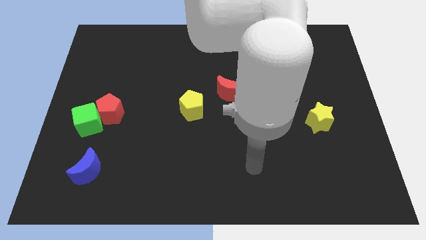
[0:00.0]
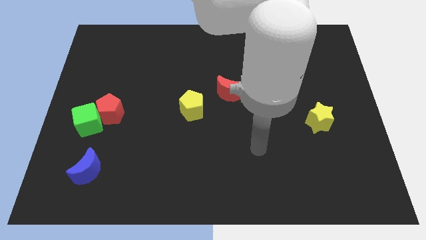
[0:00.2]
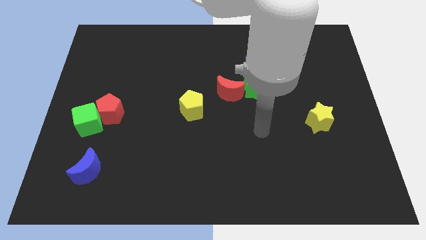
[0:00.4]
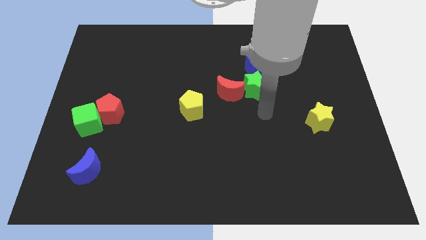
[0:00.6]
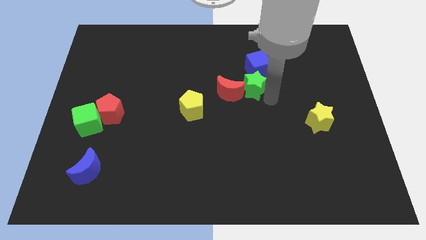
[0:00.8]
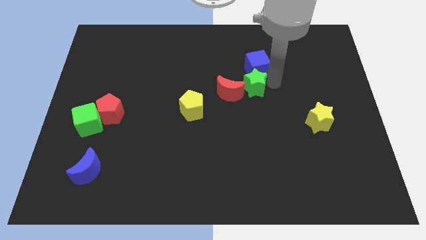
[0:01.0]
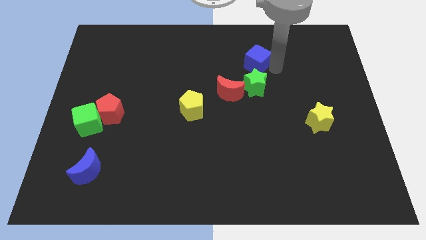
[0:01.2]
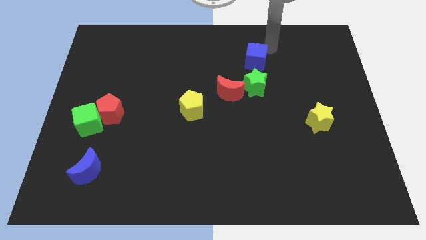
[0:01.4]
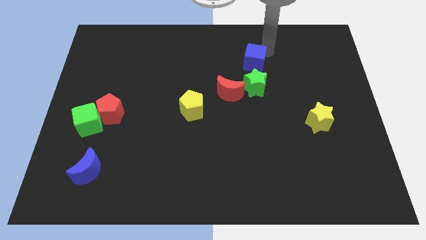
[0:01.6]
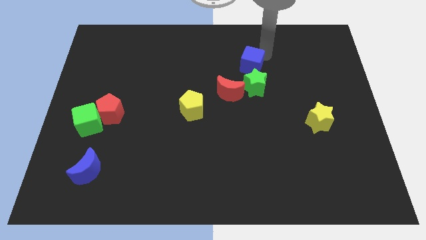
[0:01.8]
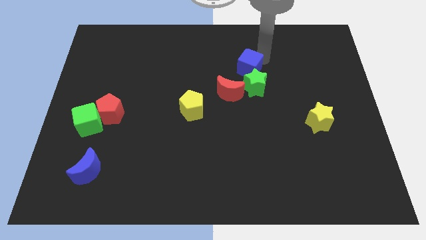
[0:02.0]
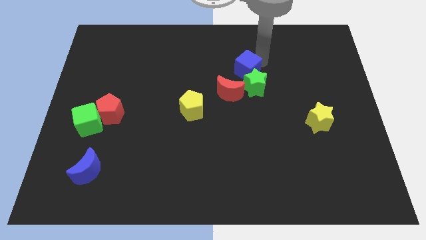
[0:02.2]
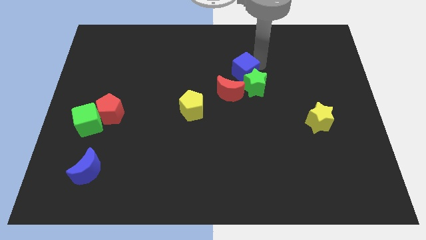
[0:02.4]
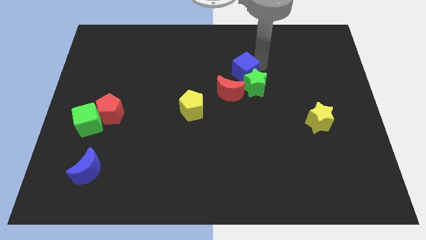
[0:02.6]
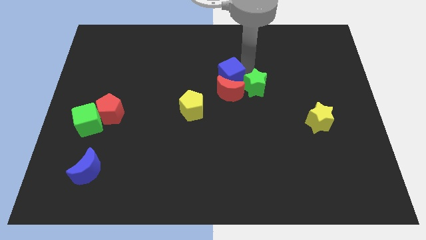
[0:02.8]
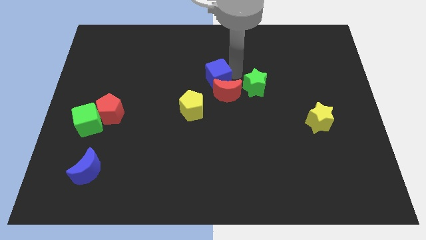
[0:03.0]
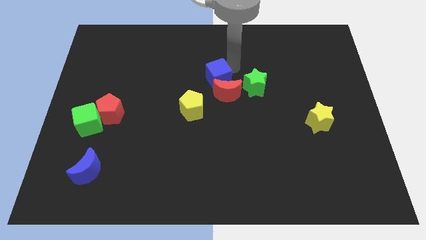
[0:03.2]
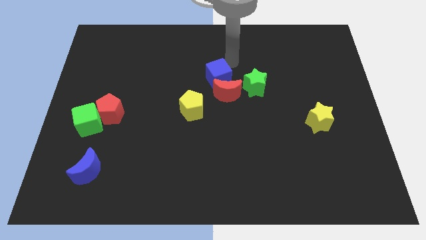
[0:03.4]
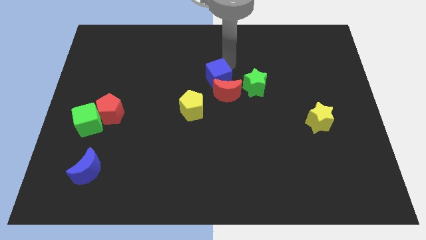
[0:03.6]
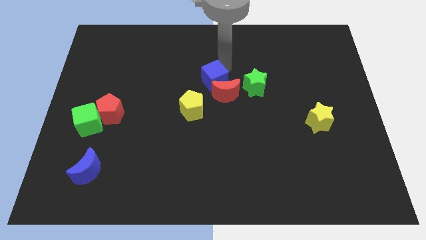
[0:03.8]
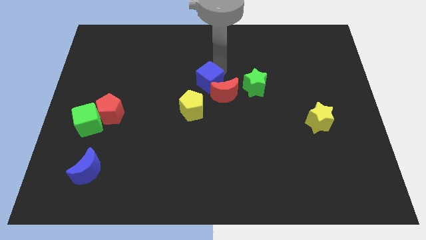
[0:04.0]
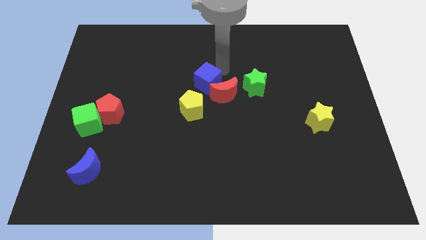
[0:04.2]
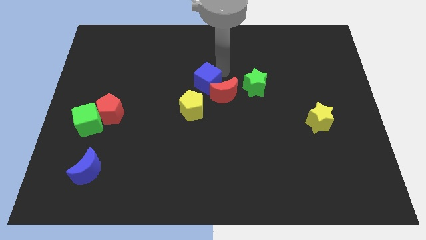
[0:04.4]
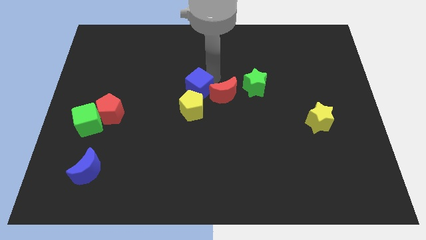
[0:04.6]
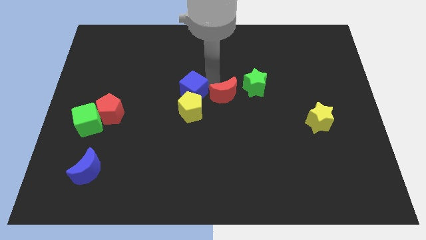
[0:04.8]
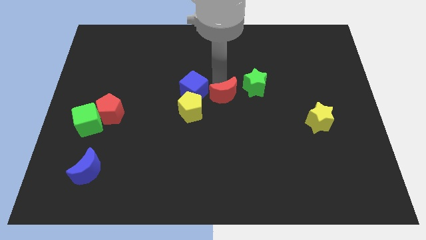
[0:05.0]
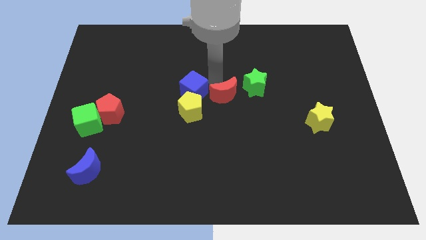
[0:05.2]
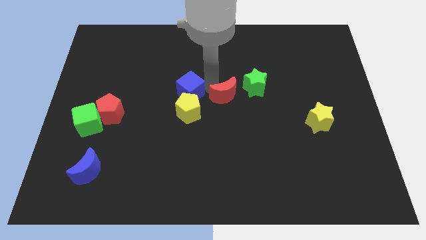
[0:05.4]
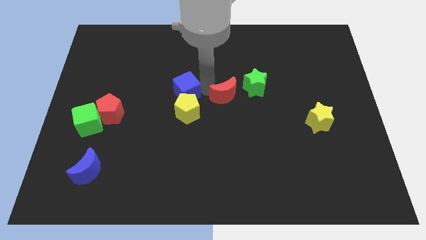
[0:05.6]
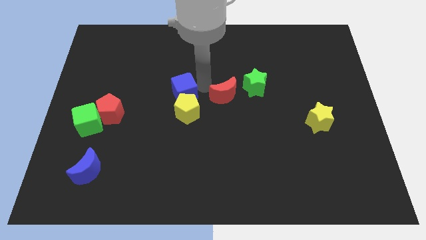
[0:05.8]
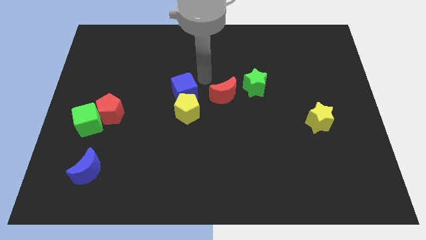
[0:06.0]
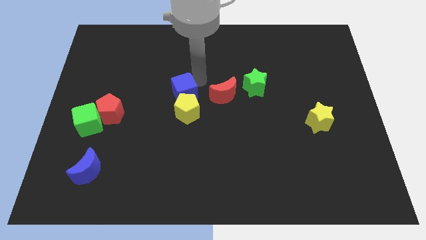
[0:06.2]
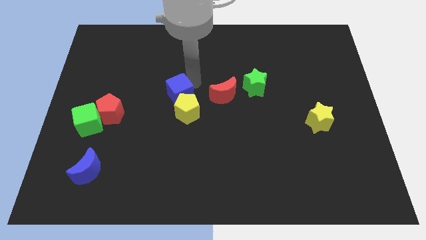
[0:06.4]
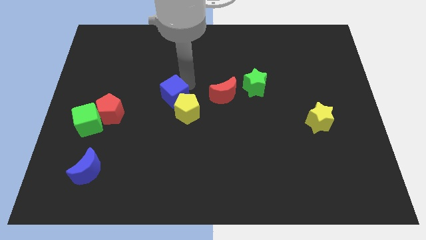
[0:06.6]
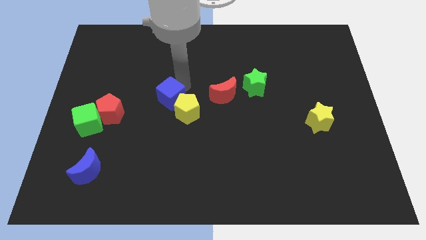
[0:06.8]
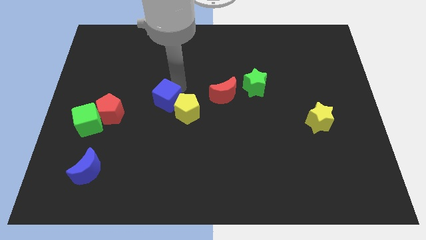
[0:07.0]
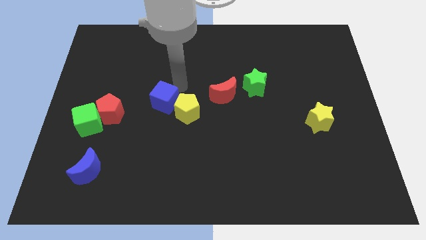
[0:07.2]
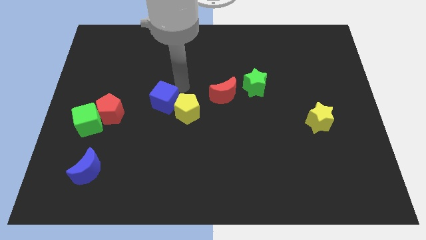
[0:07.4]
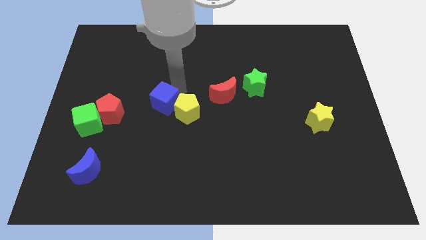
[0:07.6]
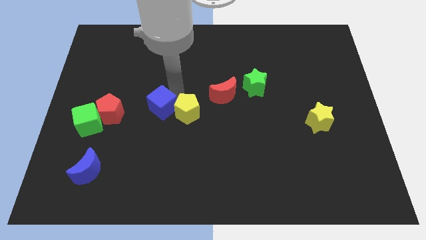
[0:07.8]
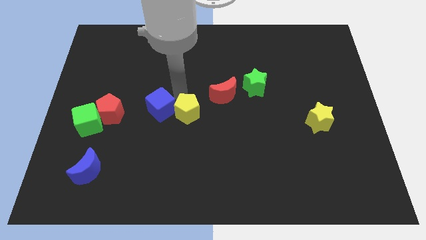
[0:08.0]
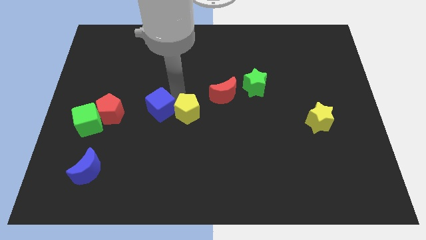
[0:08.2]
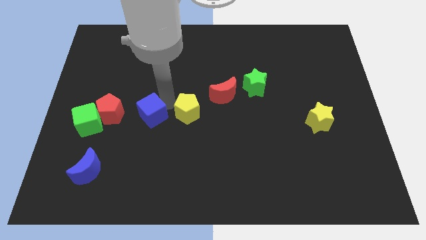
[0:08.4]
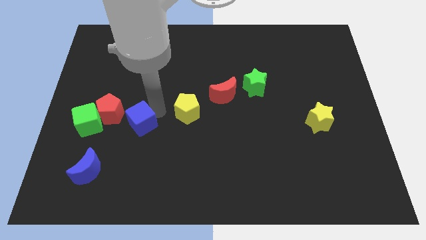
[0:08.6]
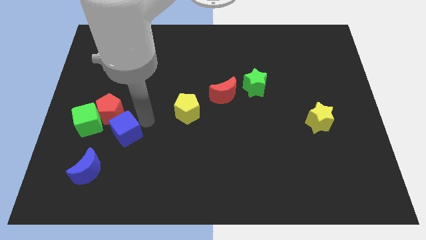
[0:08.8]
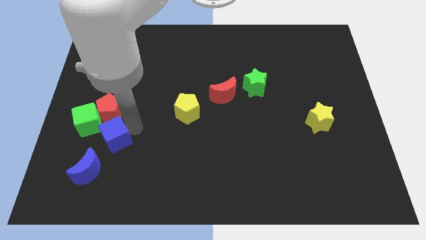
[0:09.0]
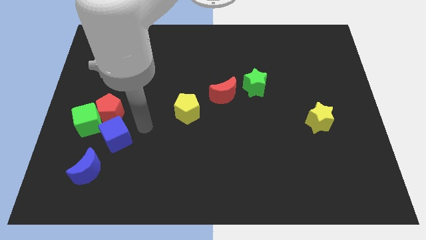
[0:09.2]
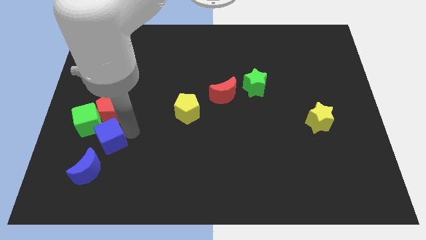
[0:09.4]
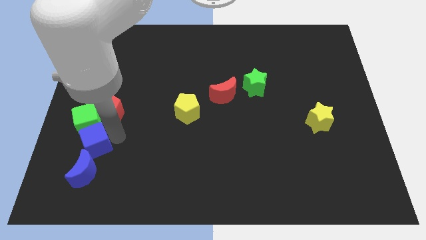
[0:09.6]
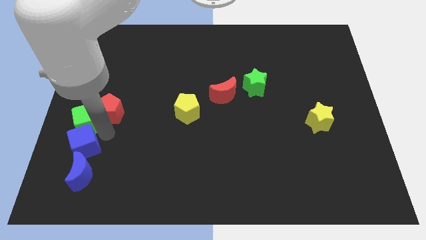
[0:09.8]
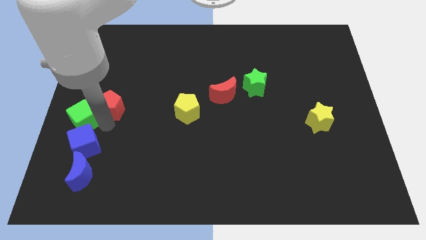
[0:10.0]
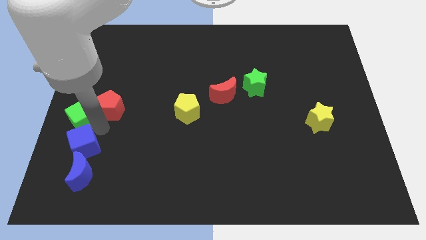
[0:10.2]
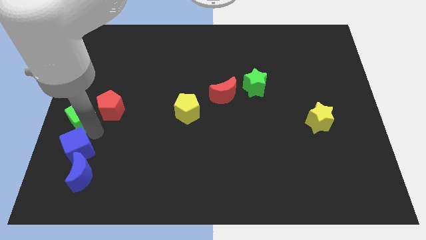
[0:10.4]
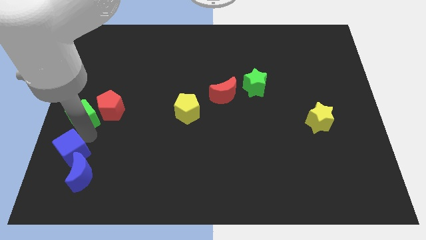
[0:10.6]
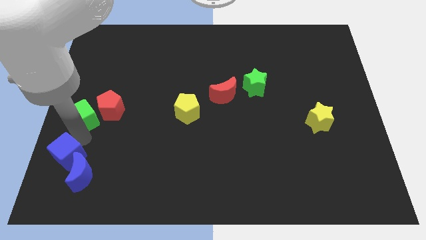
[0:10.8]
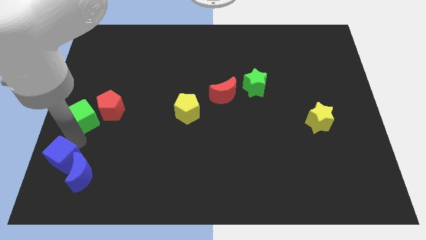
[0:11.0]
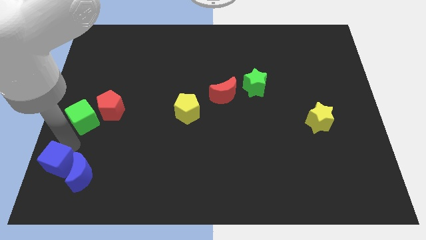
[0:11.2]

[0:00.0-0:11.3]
put the blue cube to the bottom left of the board
